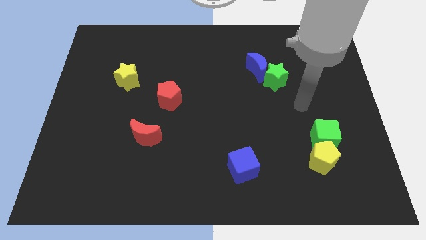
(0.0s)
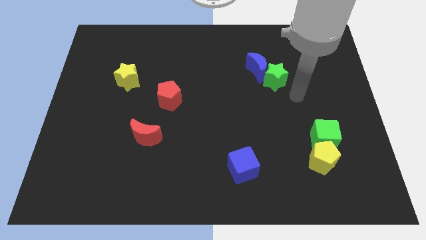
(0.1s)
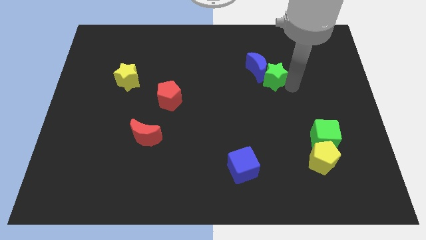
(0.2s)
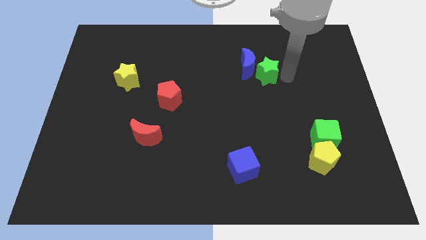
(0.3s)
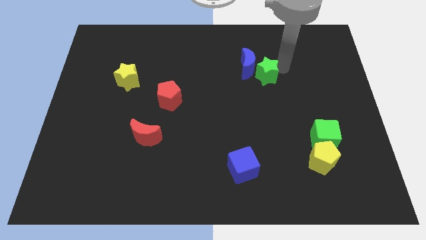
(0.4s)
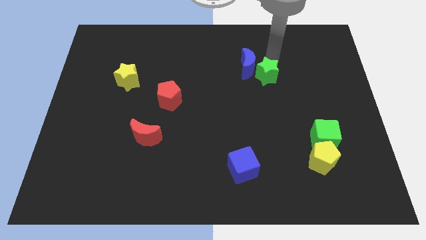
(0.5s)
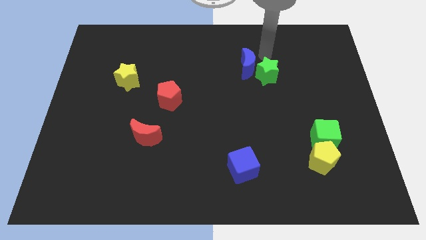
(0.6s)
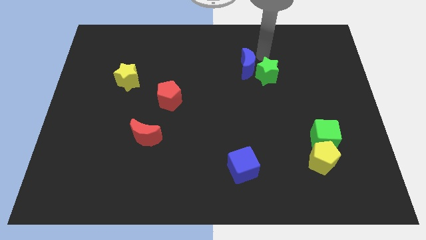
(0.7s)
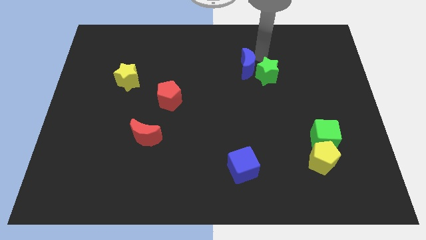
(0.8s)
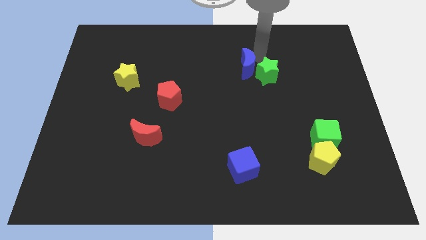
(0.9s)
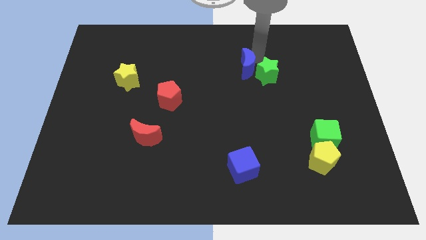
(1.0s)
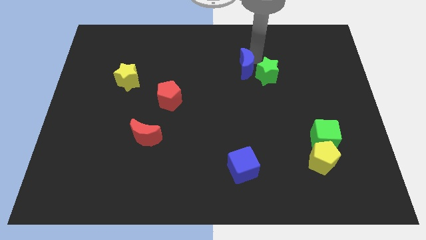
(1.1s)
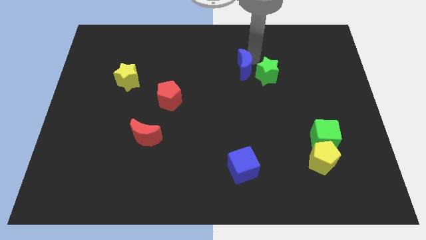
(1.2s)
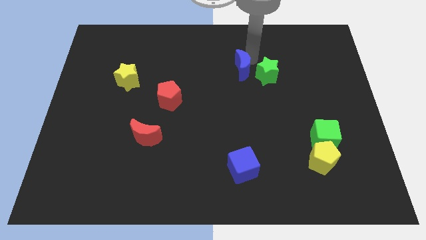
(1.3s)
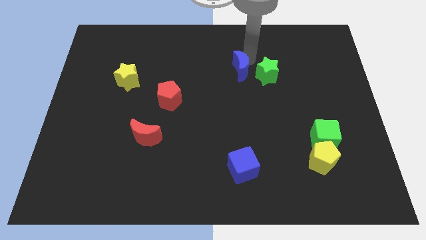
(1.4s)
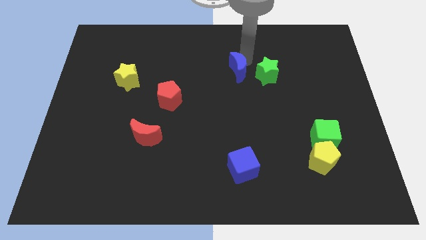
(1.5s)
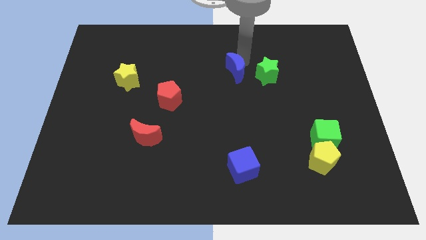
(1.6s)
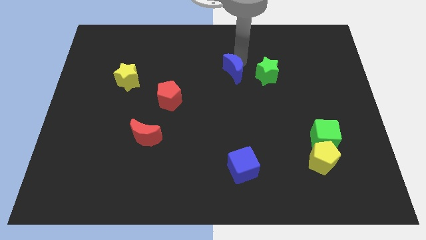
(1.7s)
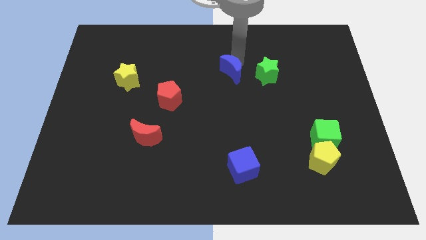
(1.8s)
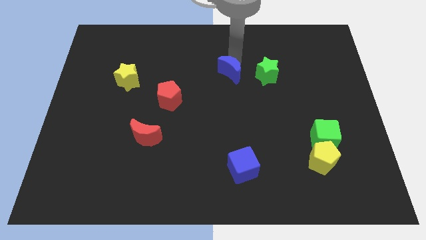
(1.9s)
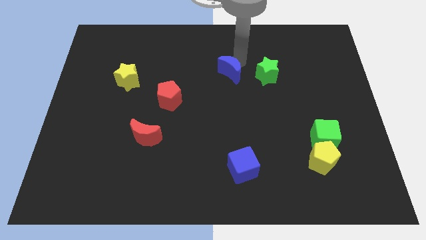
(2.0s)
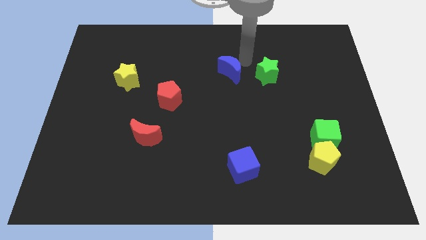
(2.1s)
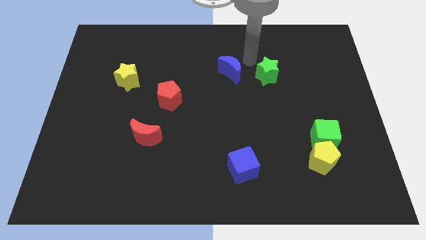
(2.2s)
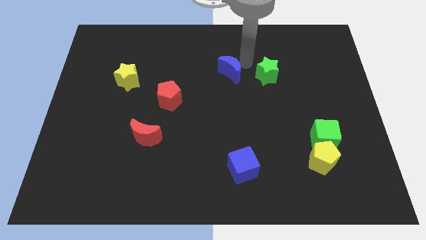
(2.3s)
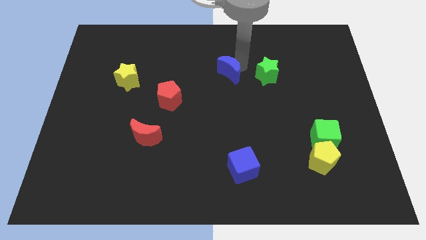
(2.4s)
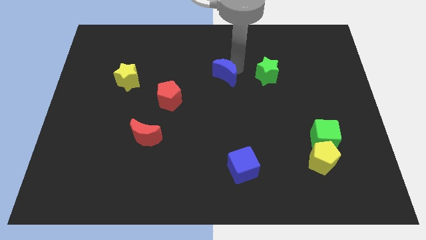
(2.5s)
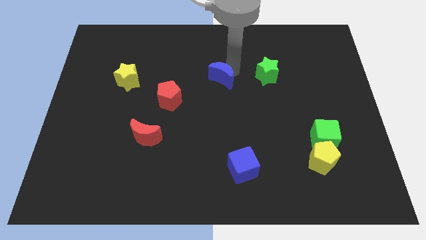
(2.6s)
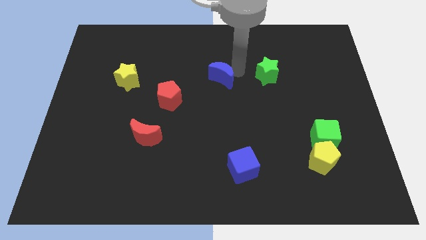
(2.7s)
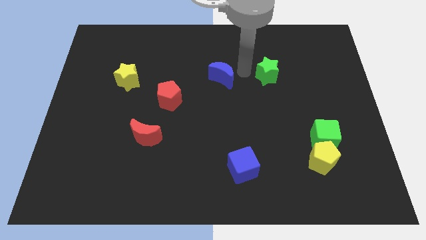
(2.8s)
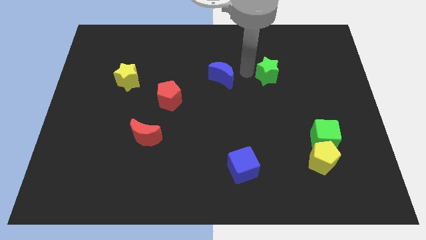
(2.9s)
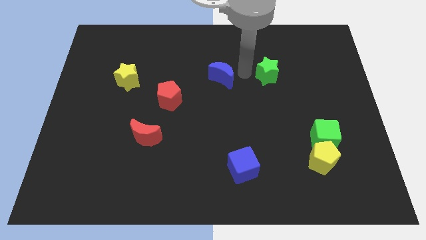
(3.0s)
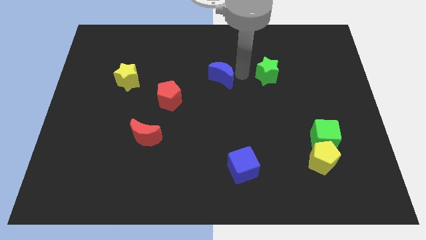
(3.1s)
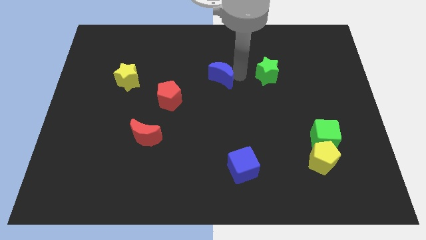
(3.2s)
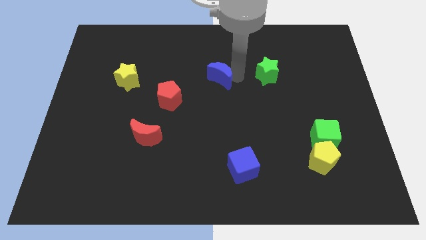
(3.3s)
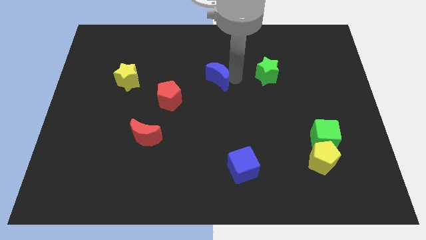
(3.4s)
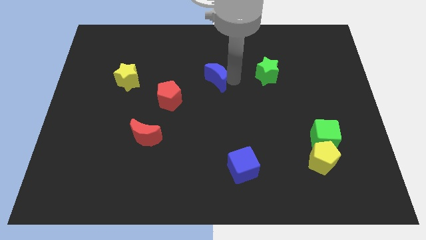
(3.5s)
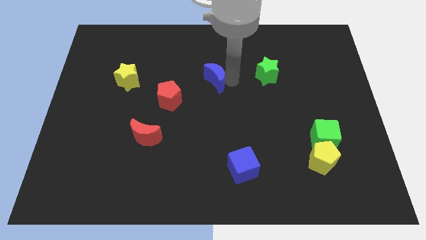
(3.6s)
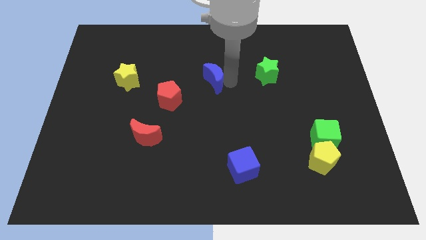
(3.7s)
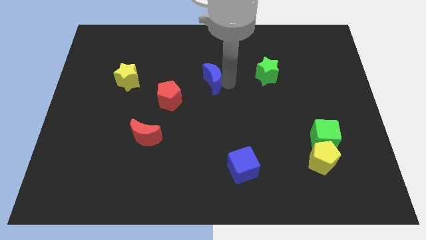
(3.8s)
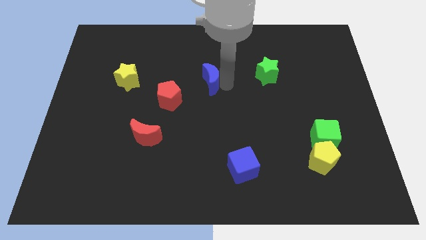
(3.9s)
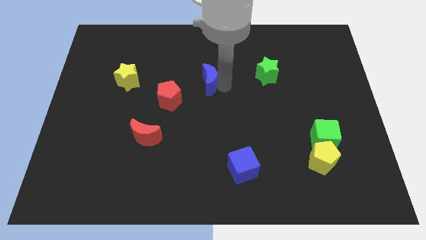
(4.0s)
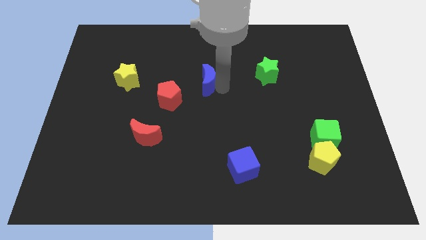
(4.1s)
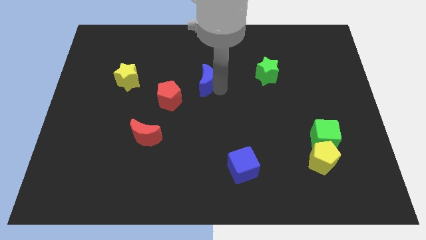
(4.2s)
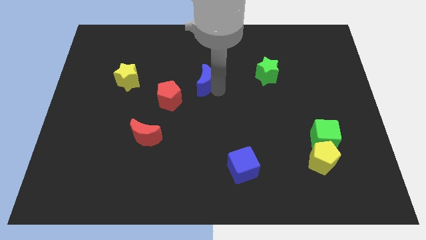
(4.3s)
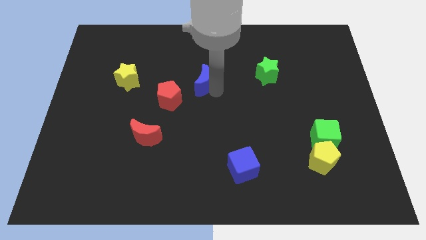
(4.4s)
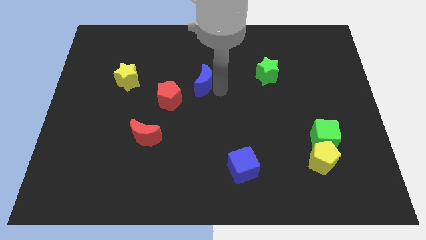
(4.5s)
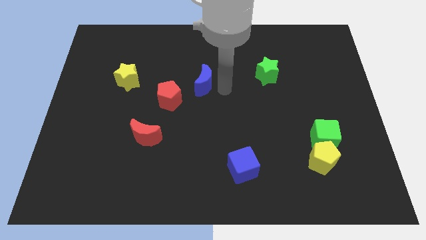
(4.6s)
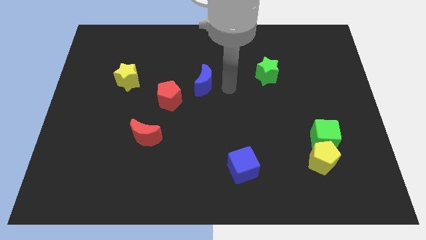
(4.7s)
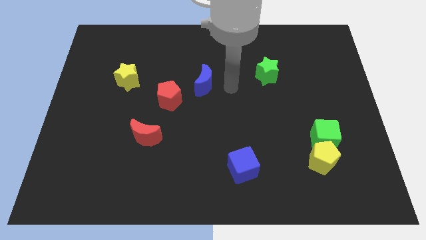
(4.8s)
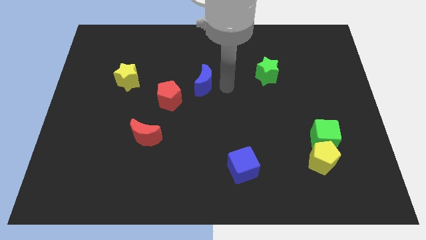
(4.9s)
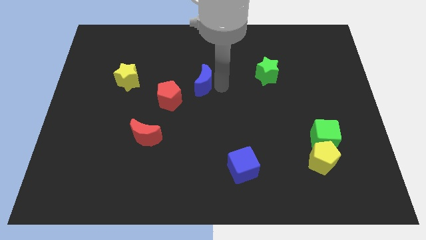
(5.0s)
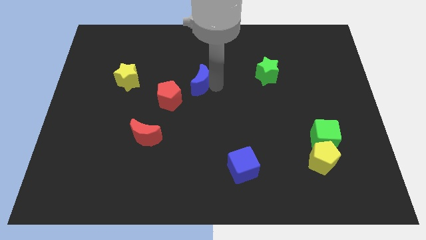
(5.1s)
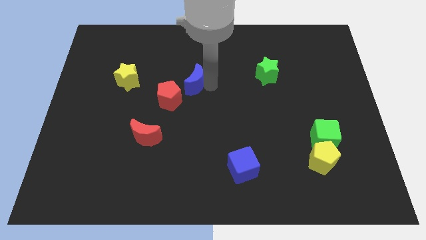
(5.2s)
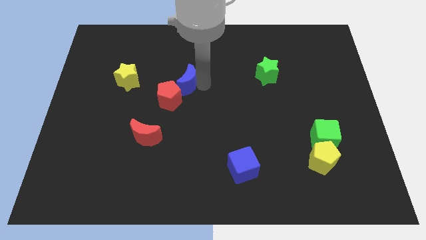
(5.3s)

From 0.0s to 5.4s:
move the blue moon to the right side of the yellow star
